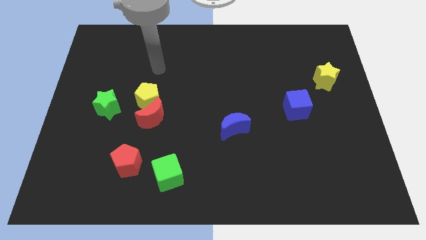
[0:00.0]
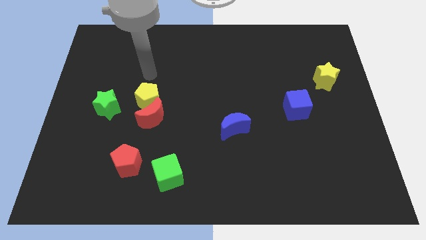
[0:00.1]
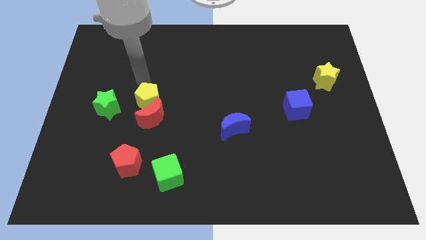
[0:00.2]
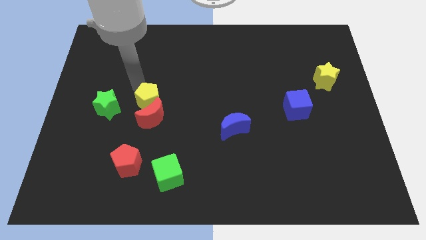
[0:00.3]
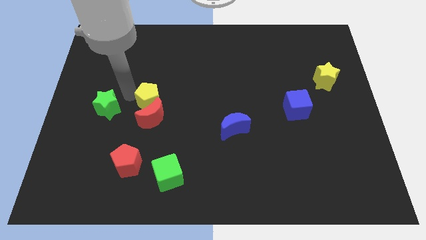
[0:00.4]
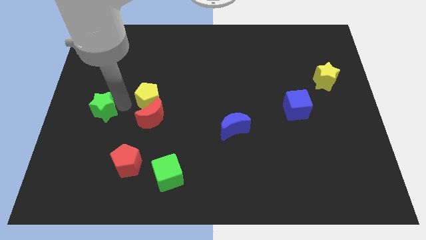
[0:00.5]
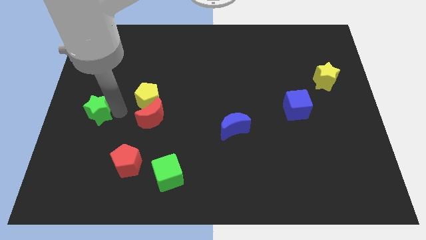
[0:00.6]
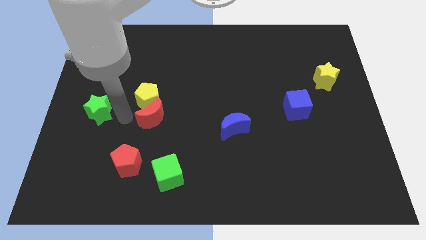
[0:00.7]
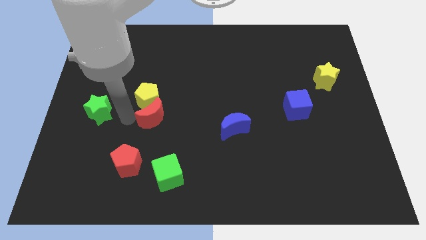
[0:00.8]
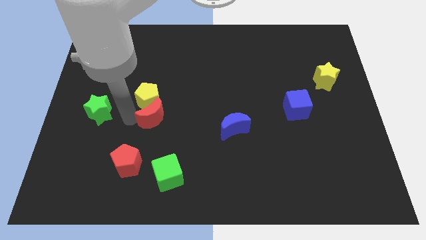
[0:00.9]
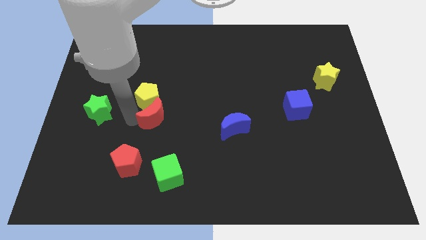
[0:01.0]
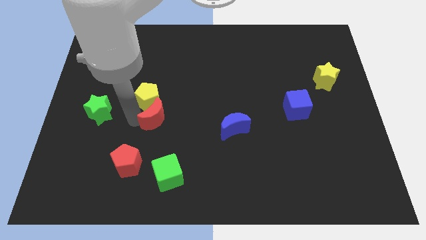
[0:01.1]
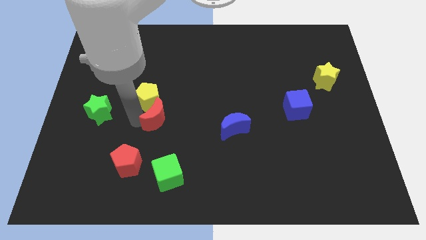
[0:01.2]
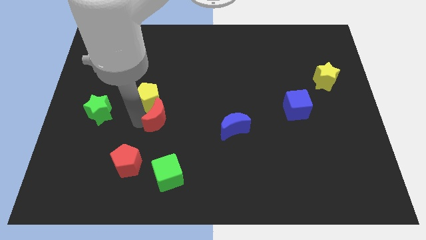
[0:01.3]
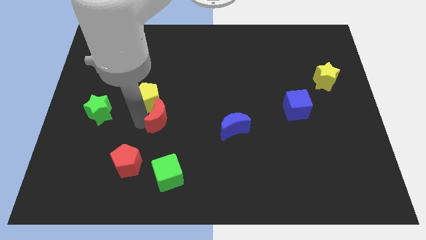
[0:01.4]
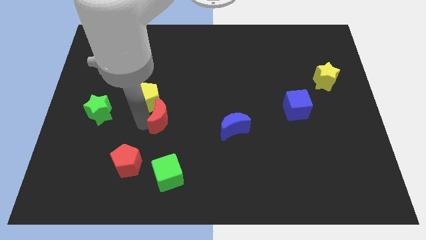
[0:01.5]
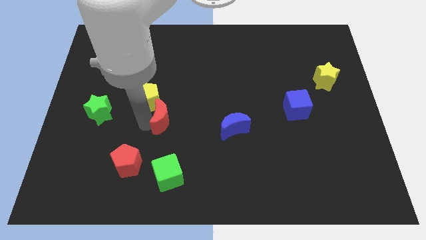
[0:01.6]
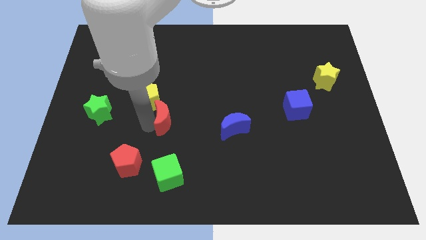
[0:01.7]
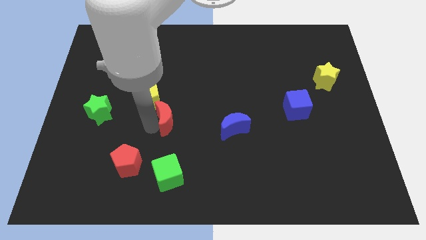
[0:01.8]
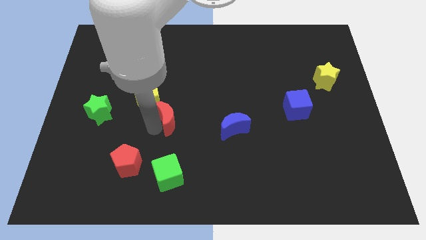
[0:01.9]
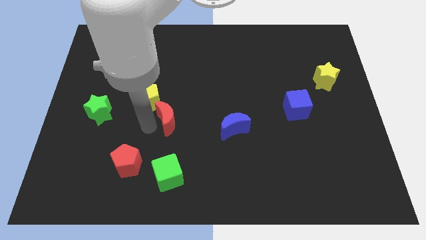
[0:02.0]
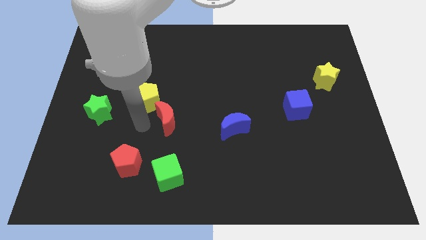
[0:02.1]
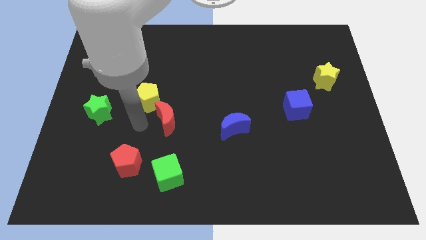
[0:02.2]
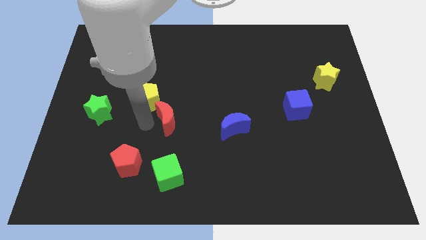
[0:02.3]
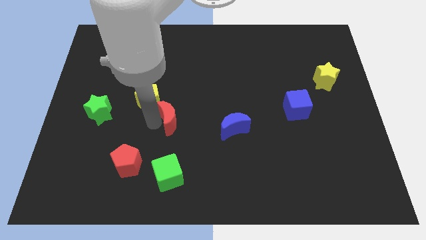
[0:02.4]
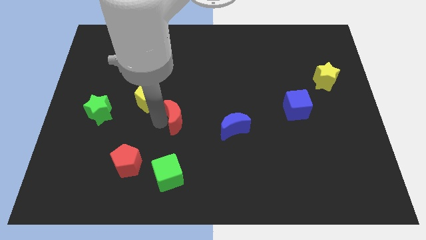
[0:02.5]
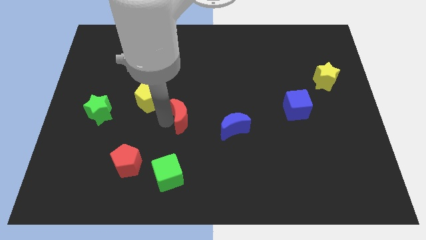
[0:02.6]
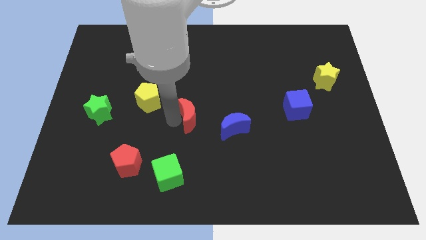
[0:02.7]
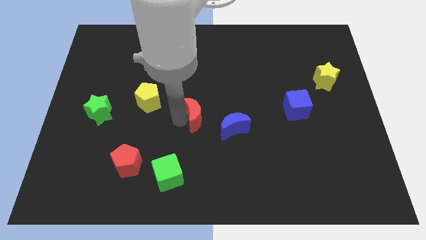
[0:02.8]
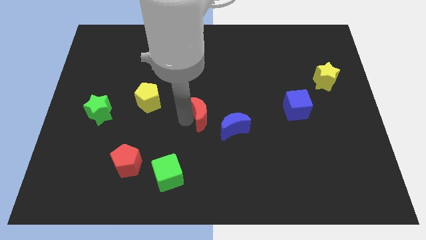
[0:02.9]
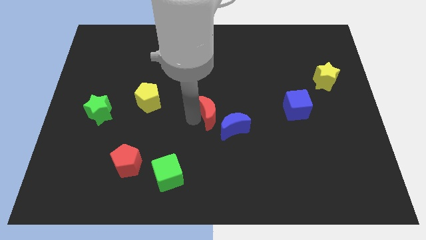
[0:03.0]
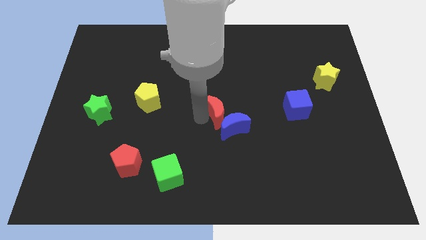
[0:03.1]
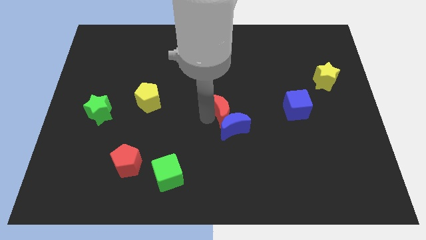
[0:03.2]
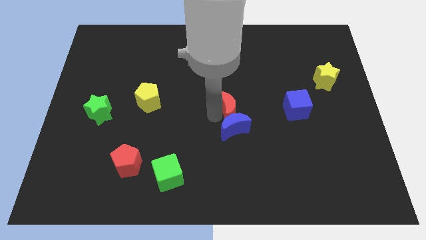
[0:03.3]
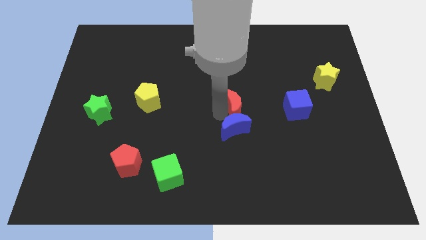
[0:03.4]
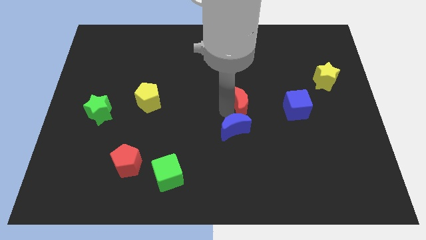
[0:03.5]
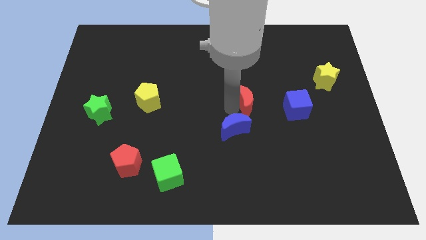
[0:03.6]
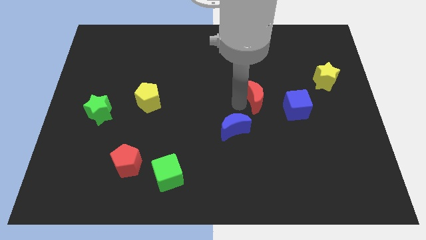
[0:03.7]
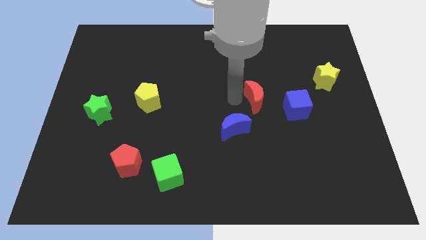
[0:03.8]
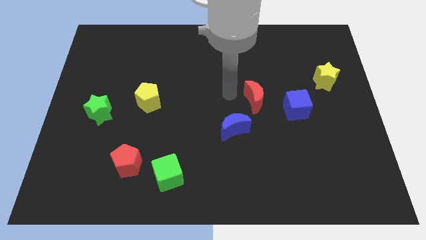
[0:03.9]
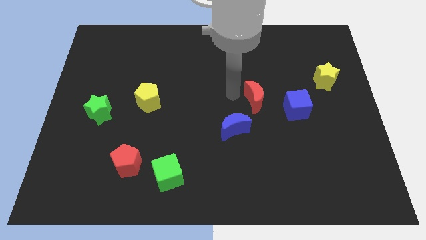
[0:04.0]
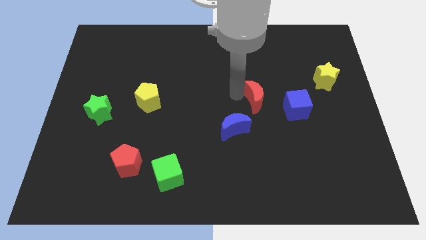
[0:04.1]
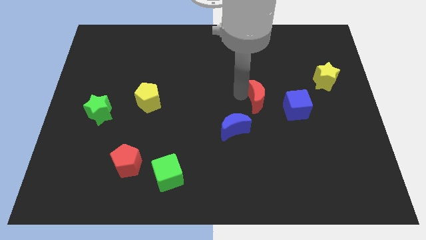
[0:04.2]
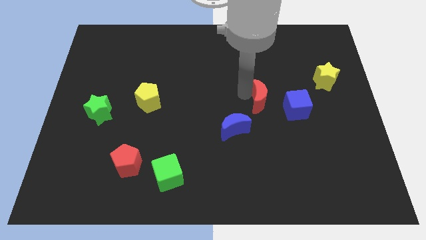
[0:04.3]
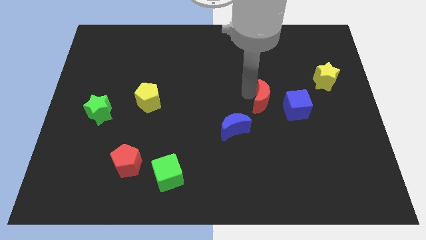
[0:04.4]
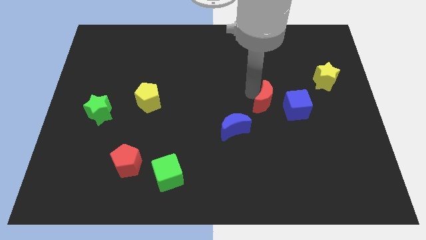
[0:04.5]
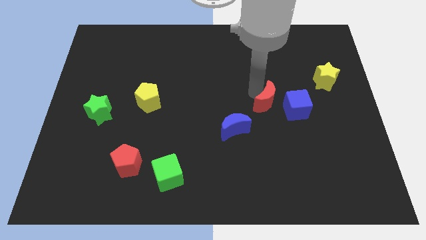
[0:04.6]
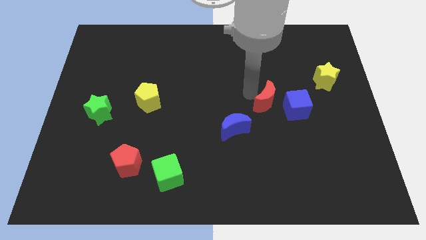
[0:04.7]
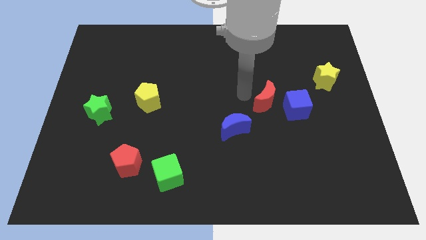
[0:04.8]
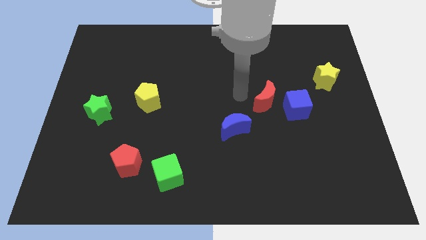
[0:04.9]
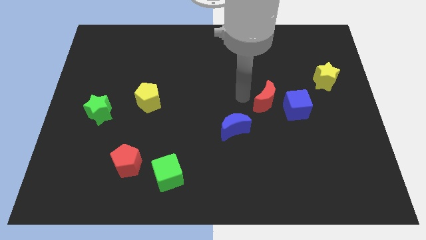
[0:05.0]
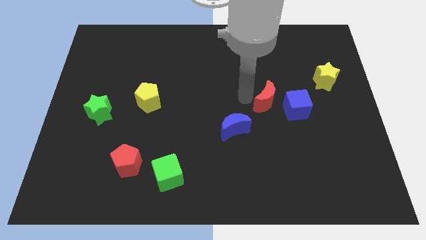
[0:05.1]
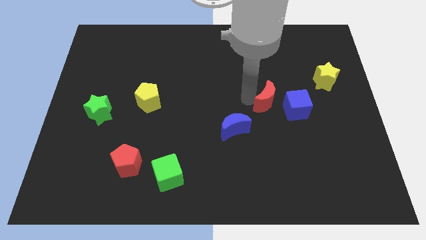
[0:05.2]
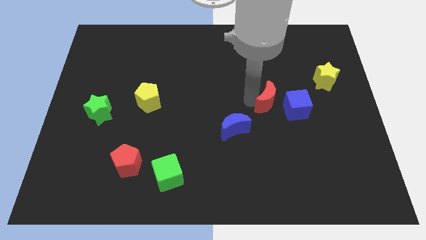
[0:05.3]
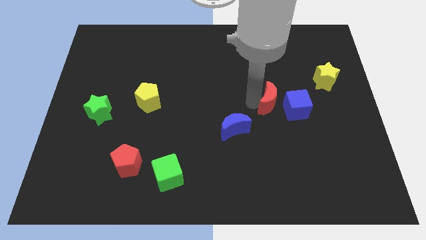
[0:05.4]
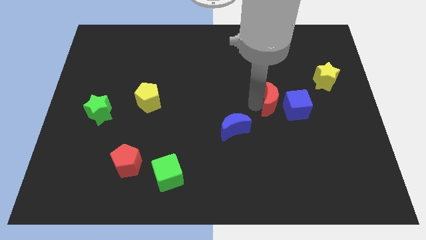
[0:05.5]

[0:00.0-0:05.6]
push the red moon to the blue cube

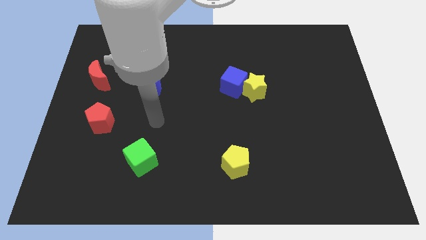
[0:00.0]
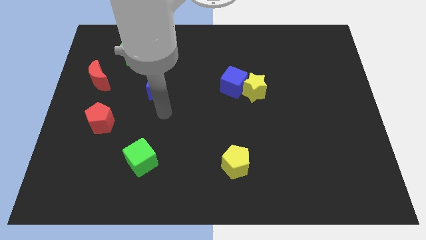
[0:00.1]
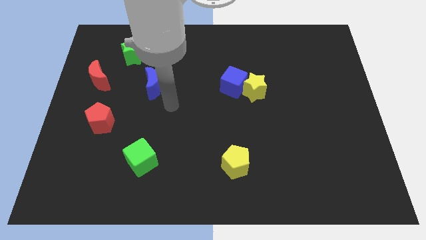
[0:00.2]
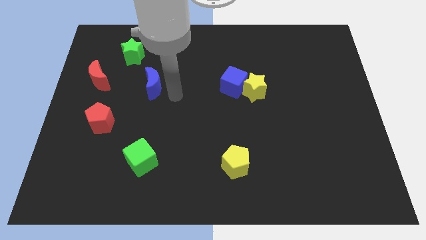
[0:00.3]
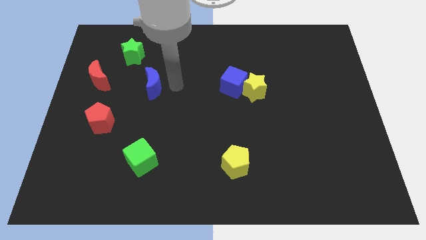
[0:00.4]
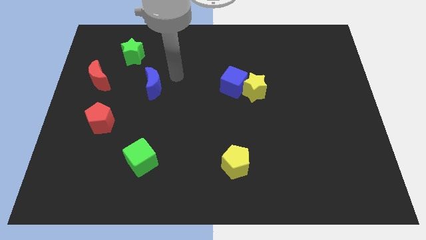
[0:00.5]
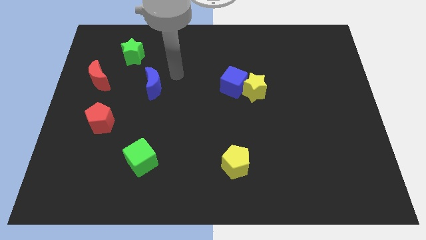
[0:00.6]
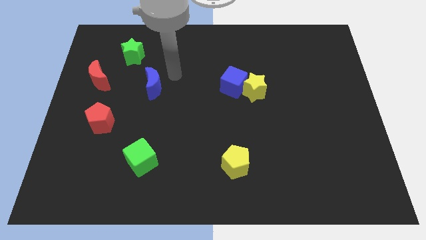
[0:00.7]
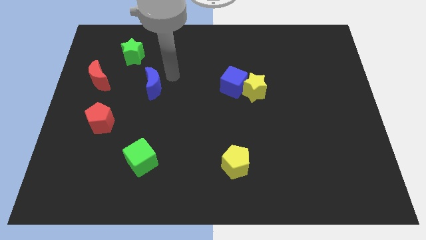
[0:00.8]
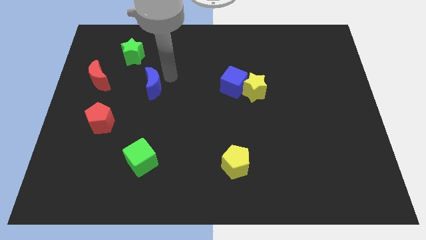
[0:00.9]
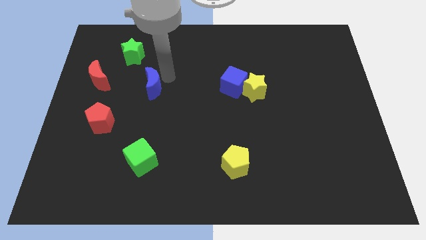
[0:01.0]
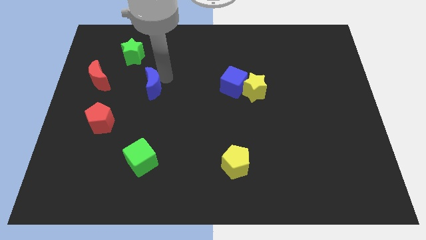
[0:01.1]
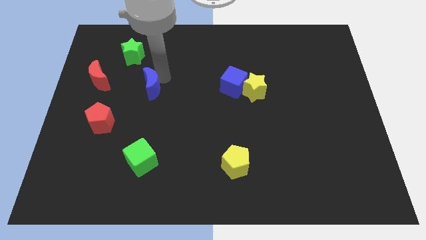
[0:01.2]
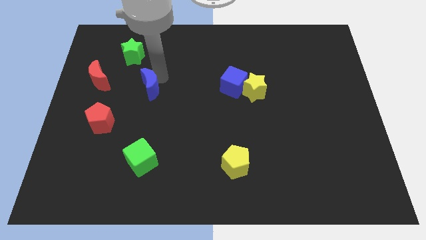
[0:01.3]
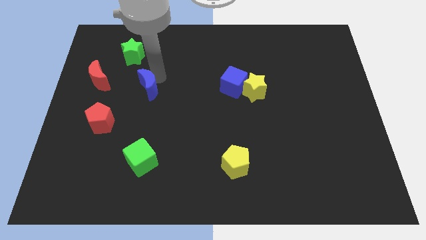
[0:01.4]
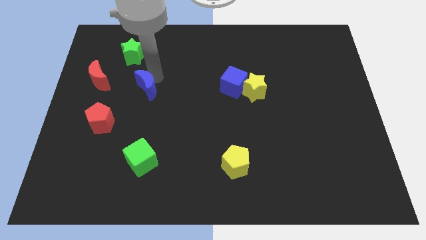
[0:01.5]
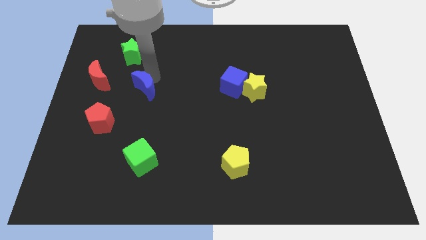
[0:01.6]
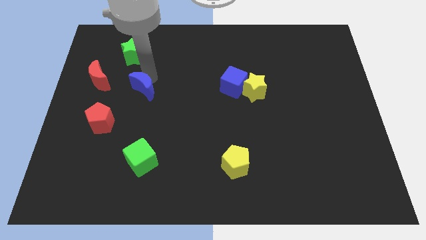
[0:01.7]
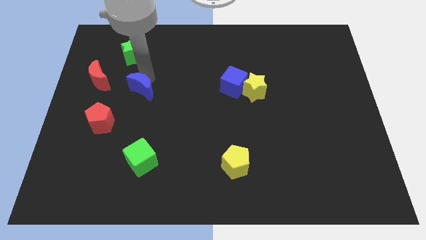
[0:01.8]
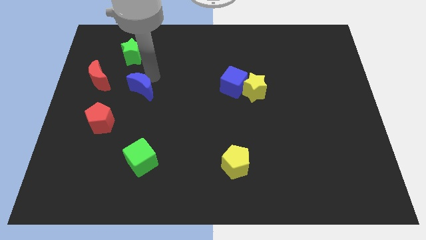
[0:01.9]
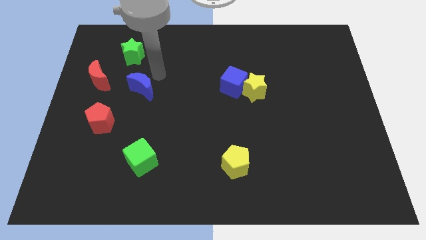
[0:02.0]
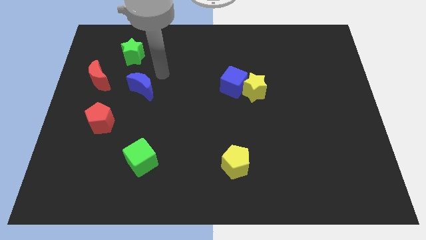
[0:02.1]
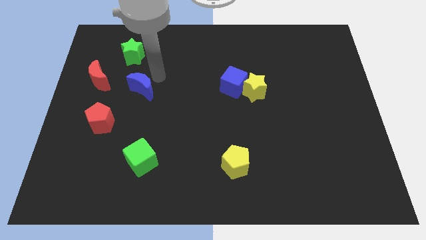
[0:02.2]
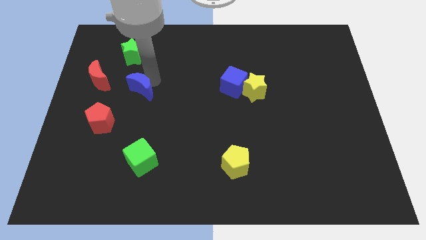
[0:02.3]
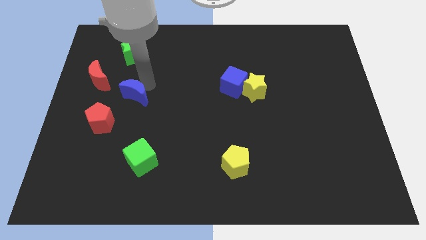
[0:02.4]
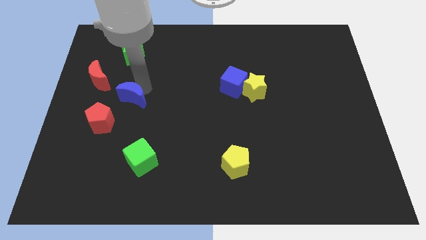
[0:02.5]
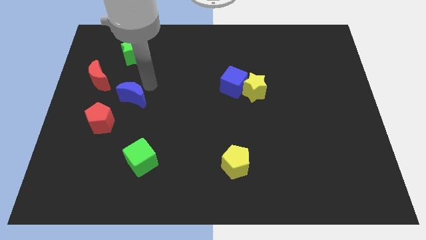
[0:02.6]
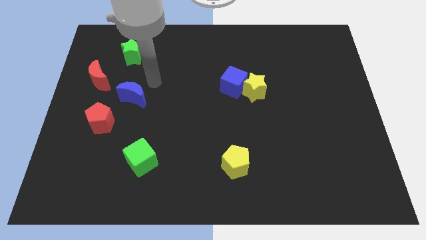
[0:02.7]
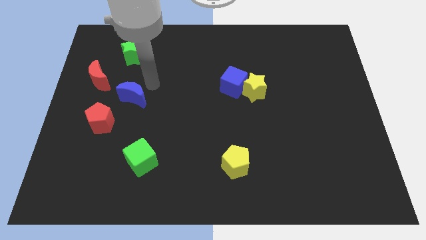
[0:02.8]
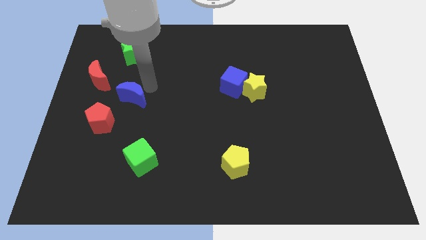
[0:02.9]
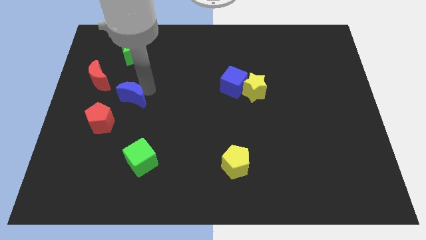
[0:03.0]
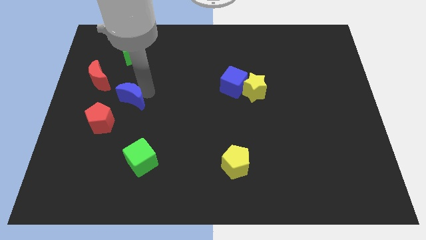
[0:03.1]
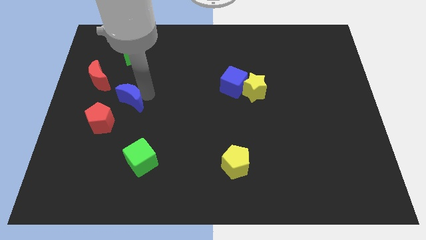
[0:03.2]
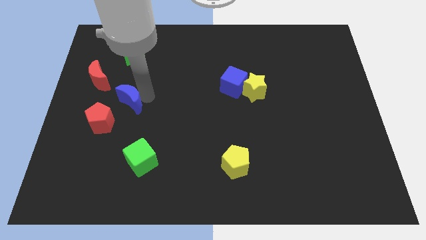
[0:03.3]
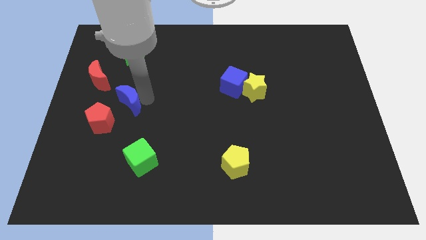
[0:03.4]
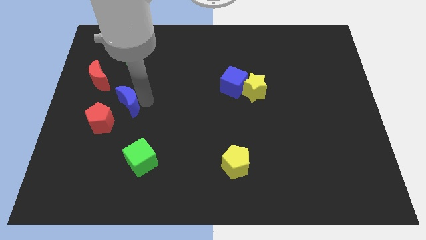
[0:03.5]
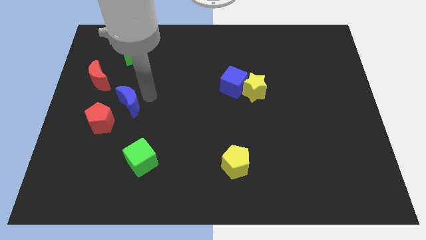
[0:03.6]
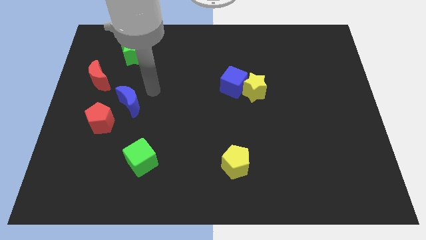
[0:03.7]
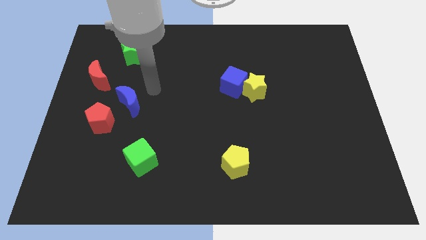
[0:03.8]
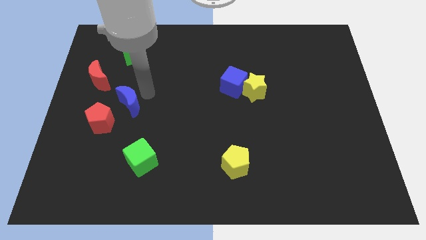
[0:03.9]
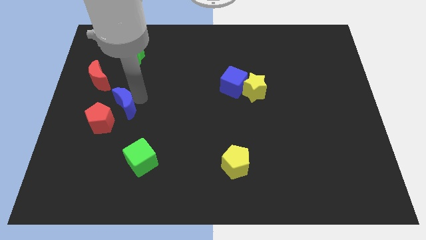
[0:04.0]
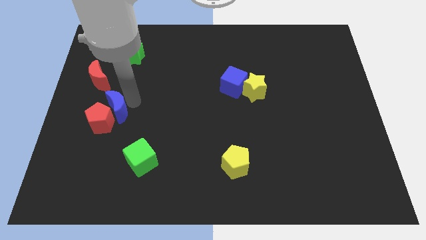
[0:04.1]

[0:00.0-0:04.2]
move the blue moon next to the red pentagon
